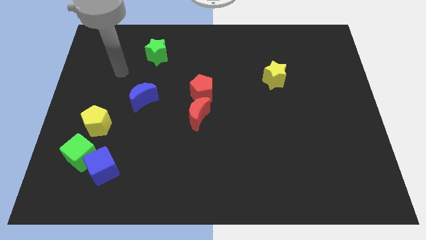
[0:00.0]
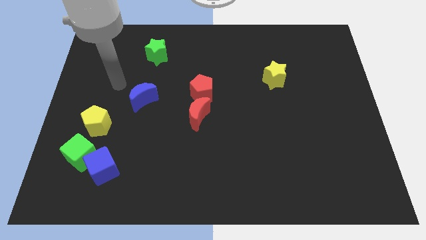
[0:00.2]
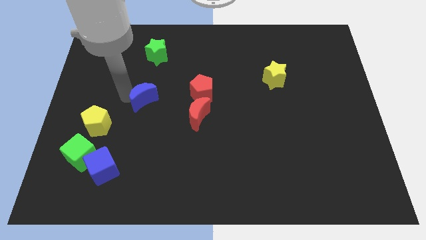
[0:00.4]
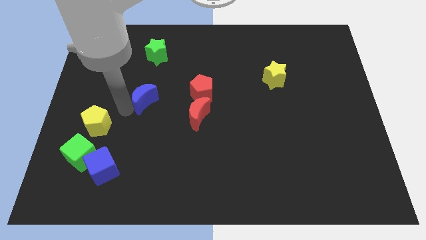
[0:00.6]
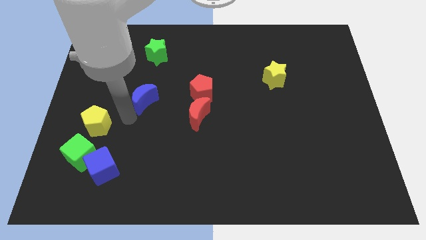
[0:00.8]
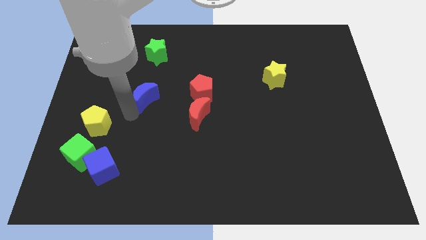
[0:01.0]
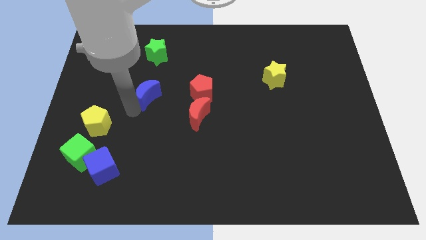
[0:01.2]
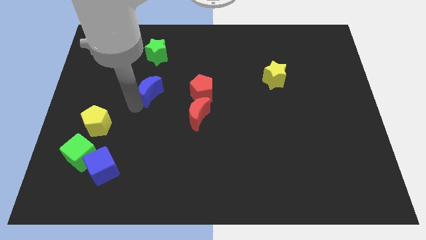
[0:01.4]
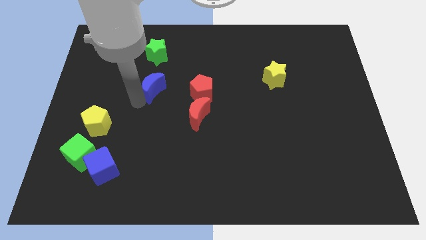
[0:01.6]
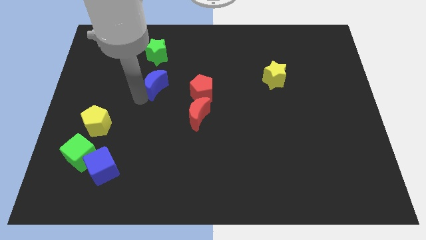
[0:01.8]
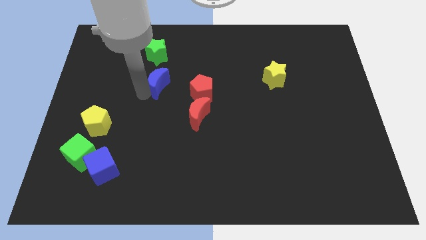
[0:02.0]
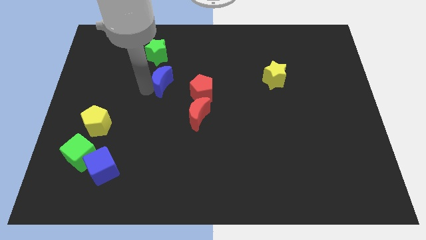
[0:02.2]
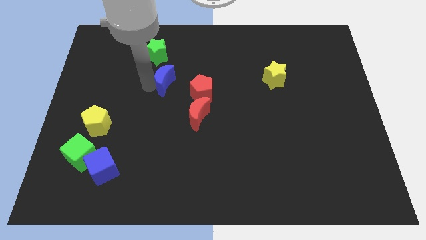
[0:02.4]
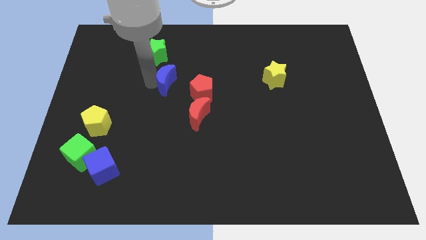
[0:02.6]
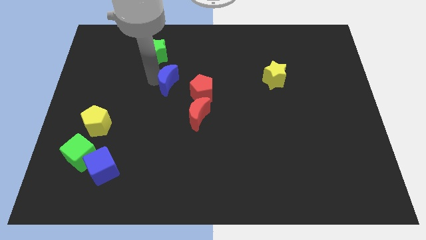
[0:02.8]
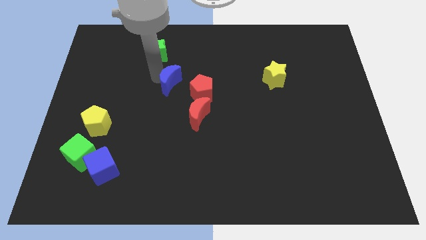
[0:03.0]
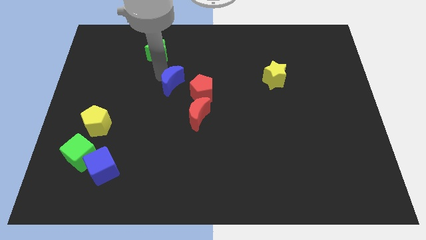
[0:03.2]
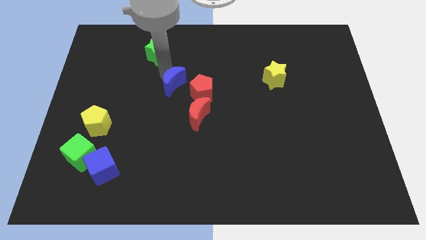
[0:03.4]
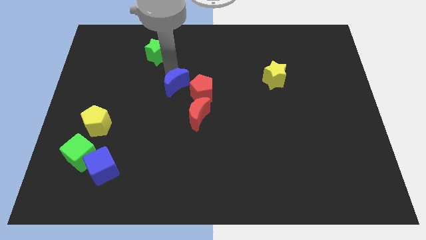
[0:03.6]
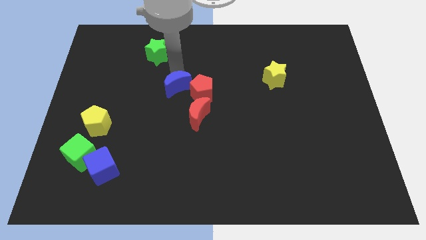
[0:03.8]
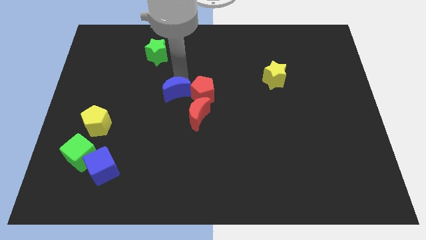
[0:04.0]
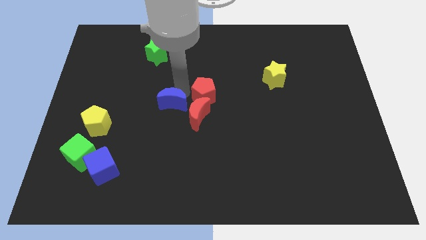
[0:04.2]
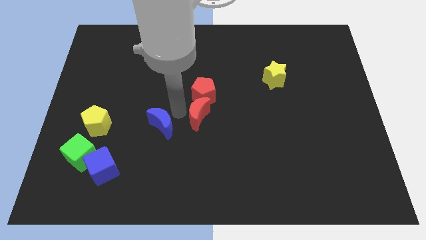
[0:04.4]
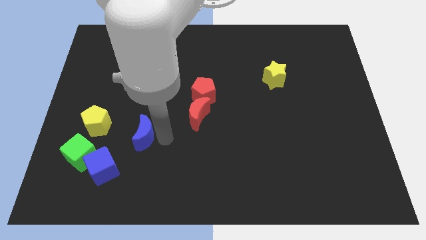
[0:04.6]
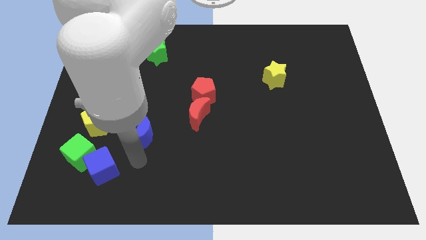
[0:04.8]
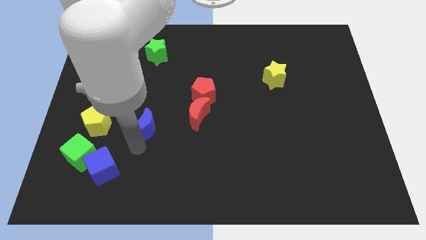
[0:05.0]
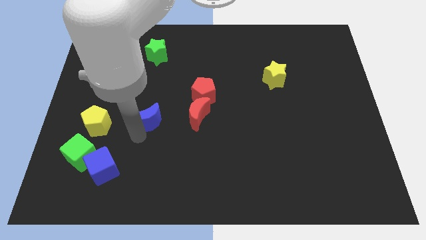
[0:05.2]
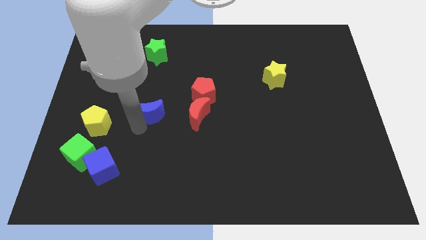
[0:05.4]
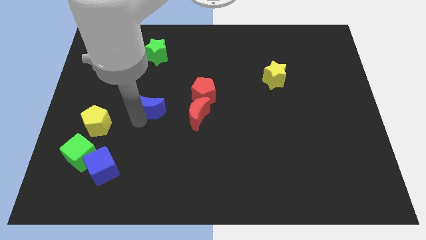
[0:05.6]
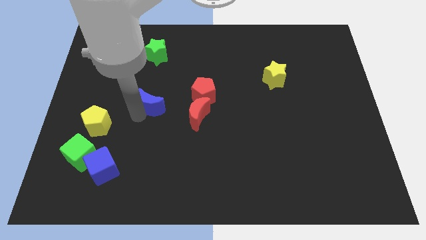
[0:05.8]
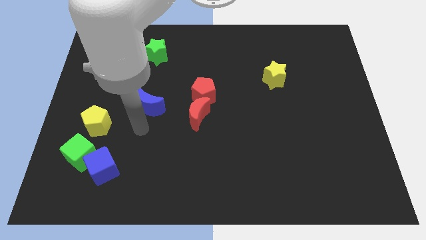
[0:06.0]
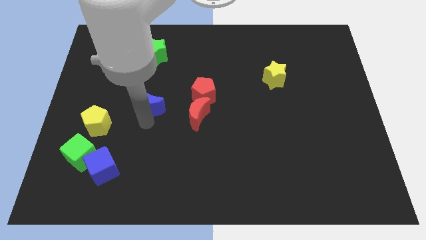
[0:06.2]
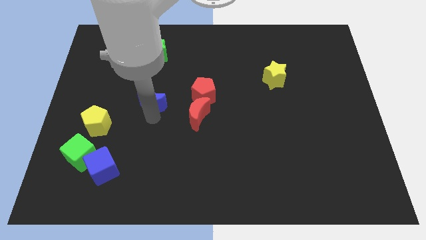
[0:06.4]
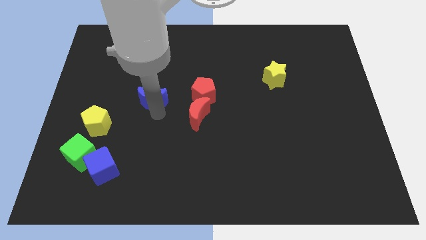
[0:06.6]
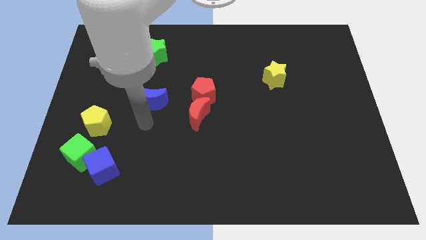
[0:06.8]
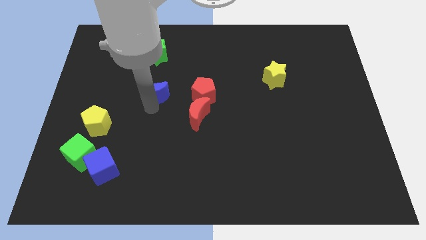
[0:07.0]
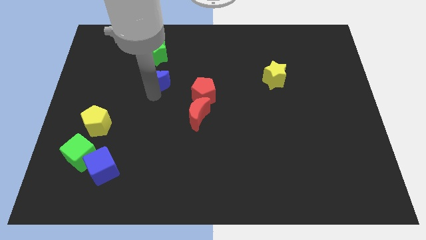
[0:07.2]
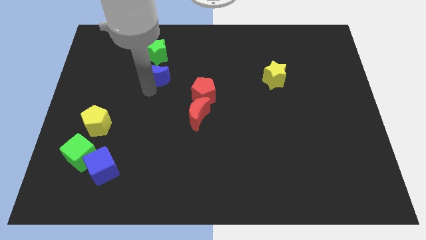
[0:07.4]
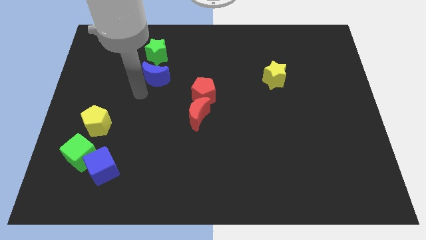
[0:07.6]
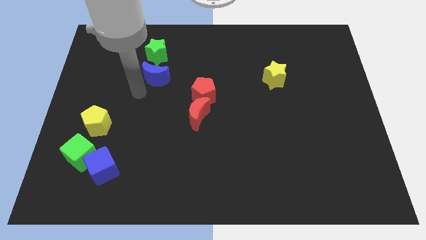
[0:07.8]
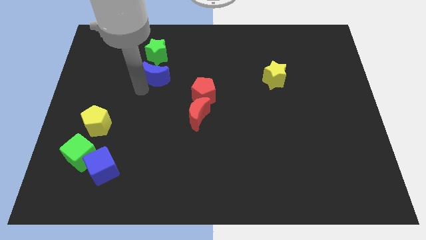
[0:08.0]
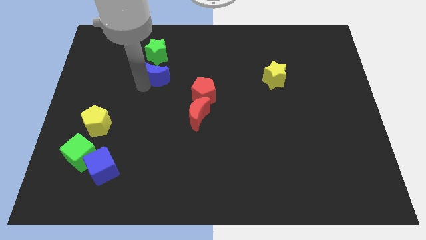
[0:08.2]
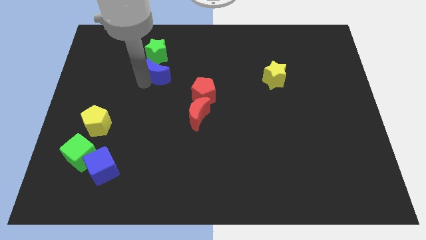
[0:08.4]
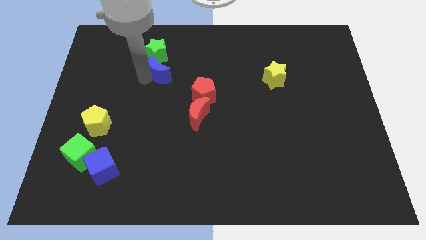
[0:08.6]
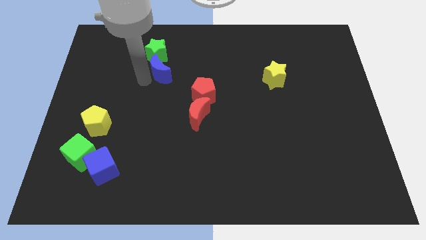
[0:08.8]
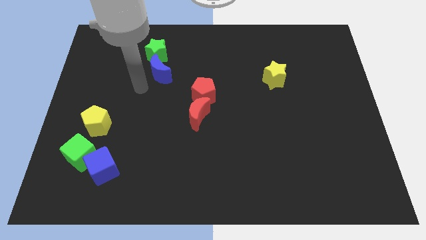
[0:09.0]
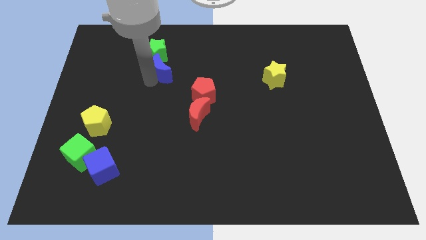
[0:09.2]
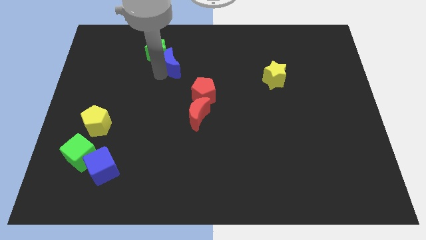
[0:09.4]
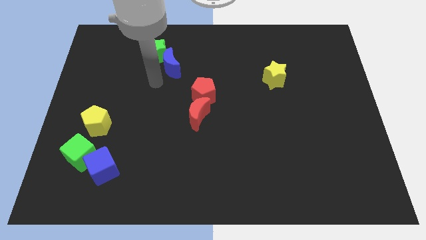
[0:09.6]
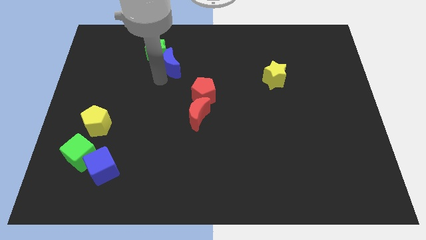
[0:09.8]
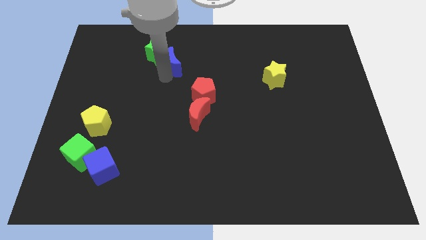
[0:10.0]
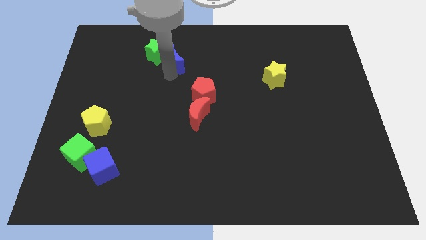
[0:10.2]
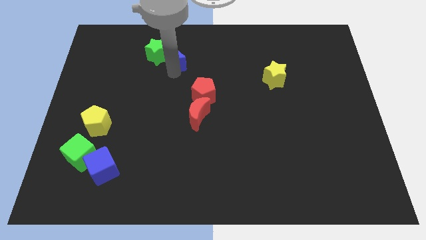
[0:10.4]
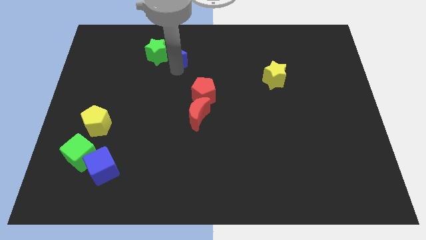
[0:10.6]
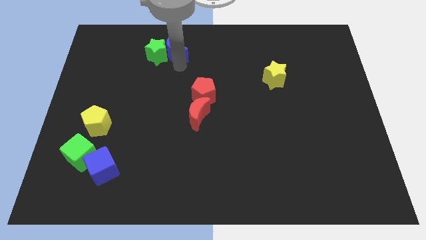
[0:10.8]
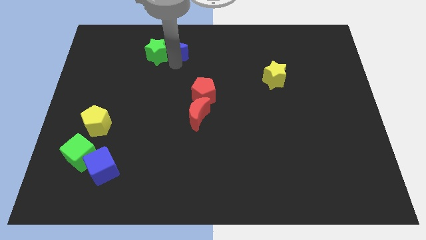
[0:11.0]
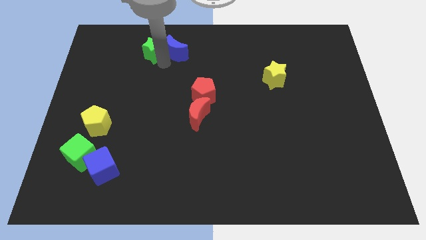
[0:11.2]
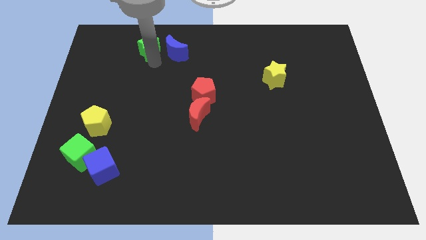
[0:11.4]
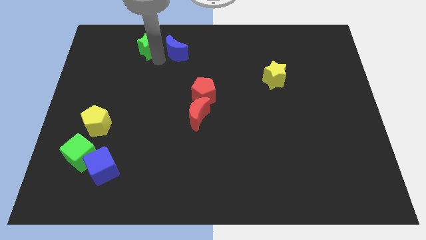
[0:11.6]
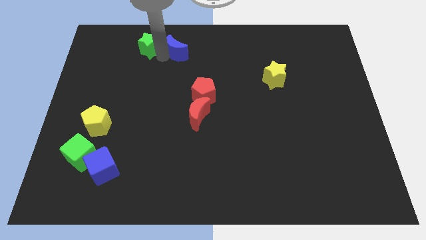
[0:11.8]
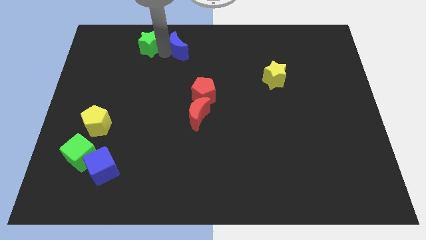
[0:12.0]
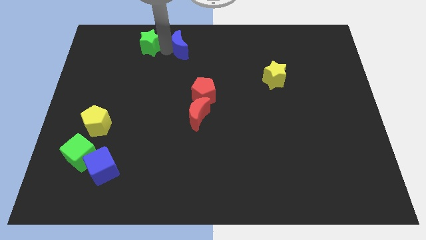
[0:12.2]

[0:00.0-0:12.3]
push the blue moon to the top side
